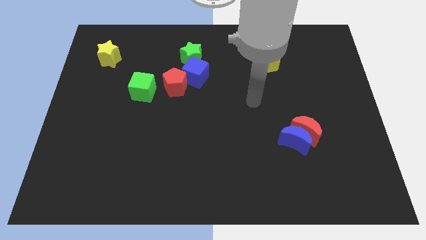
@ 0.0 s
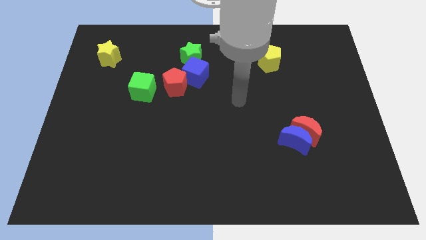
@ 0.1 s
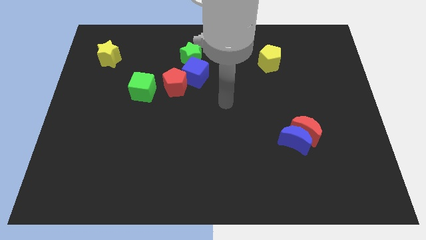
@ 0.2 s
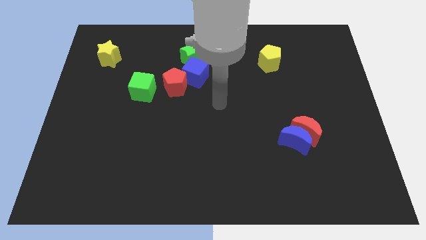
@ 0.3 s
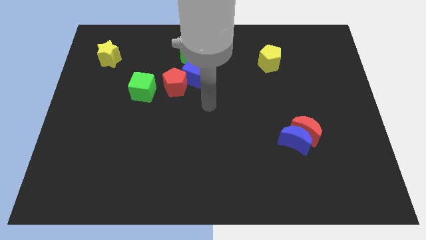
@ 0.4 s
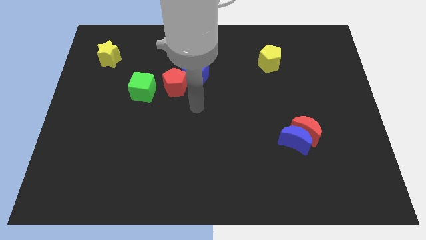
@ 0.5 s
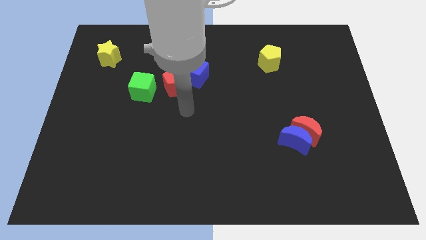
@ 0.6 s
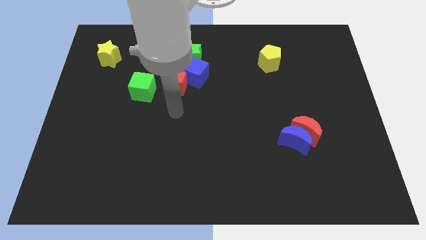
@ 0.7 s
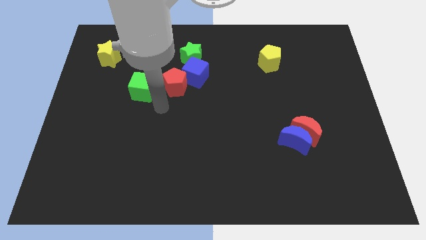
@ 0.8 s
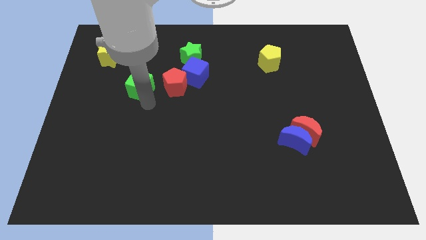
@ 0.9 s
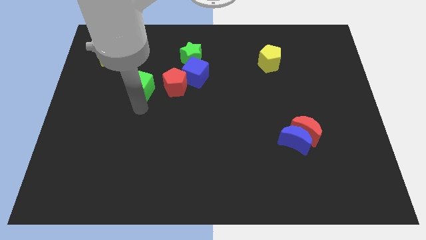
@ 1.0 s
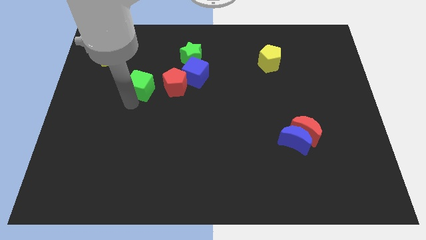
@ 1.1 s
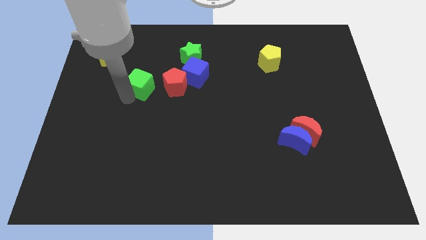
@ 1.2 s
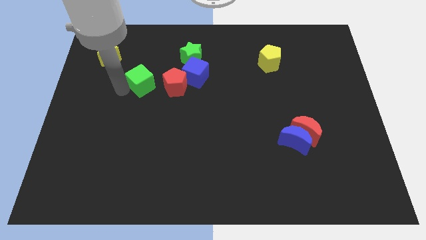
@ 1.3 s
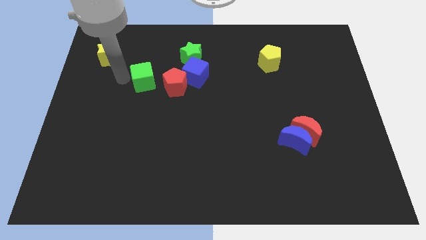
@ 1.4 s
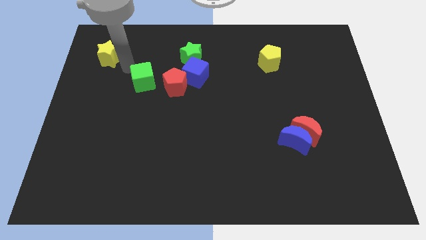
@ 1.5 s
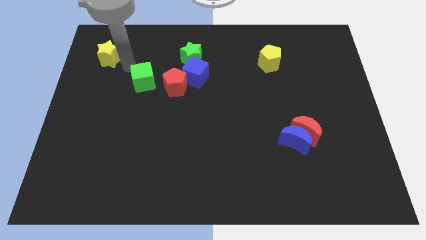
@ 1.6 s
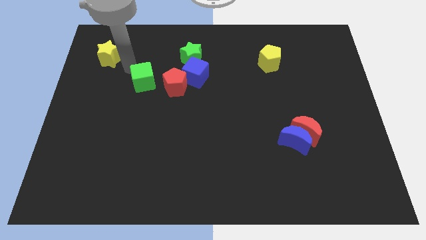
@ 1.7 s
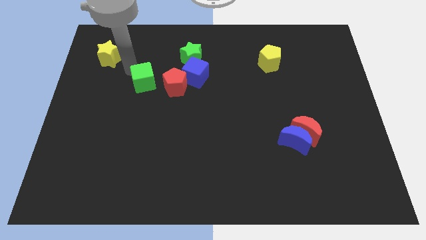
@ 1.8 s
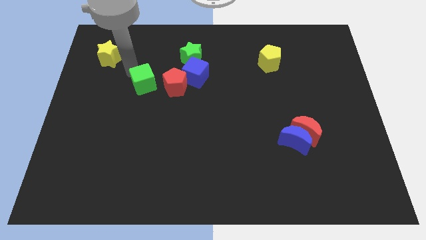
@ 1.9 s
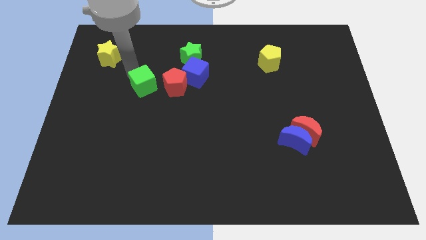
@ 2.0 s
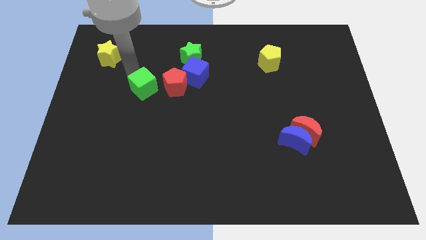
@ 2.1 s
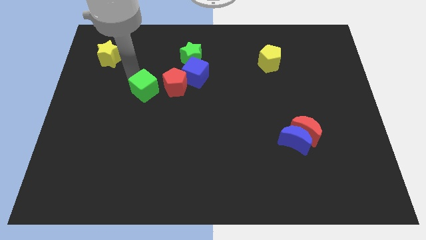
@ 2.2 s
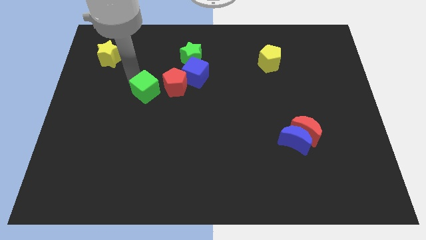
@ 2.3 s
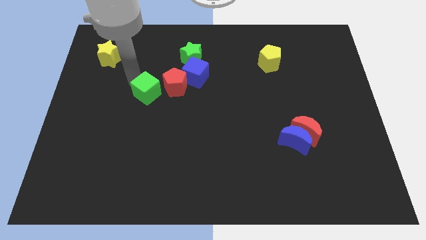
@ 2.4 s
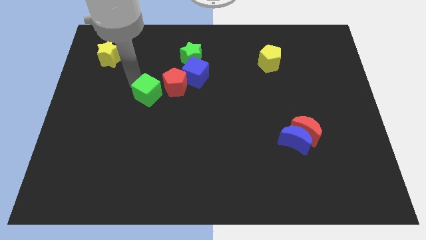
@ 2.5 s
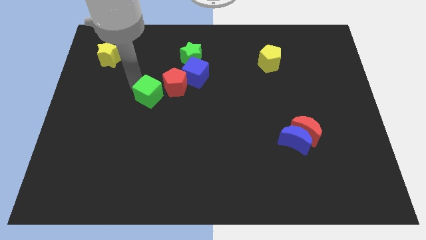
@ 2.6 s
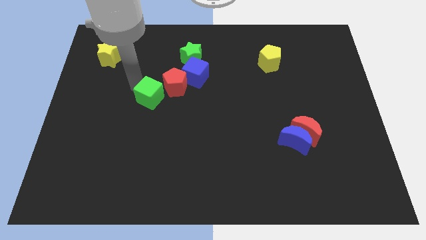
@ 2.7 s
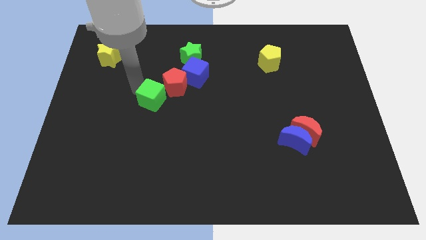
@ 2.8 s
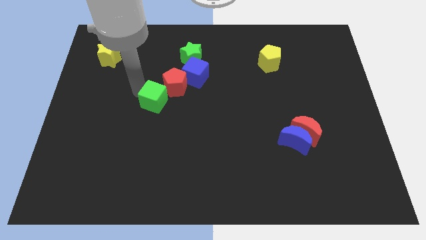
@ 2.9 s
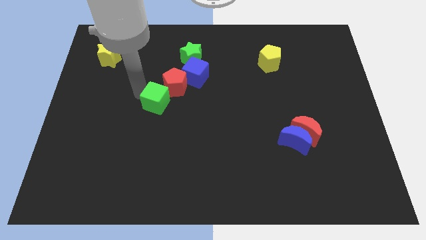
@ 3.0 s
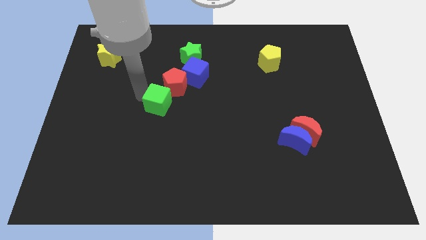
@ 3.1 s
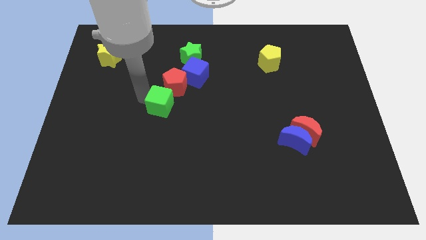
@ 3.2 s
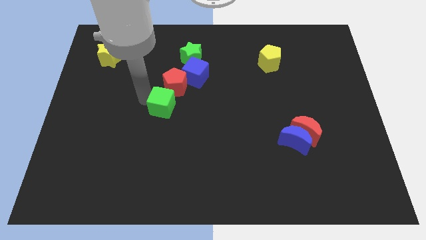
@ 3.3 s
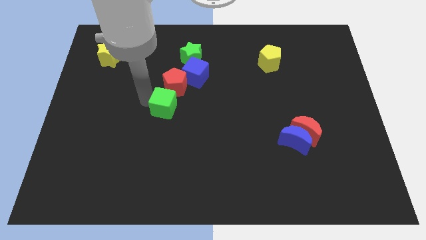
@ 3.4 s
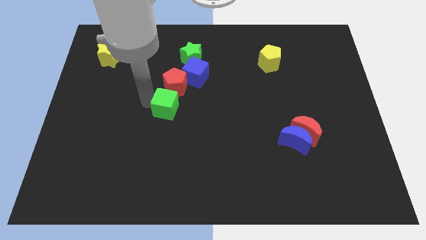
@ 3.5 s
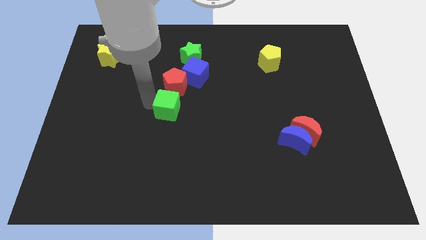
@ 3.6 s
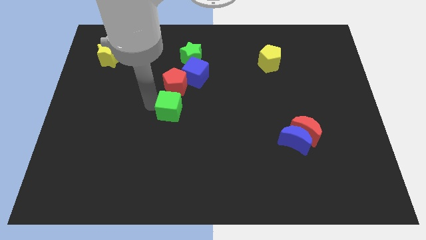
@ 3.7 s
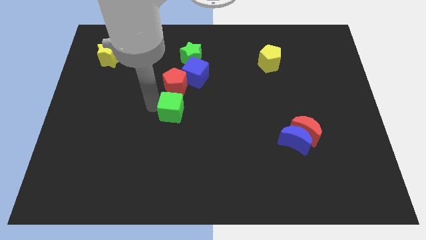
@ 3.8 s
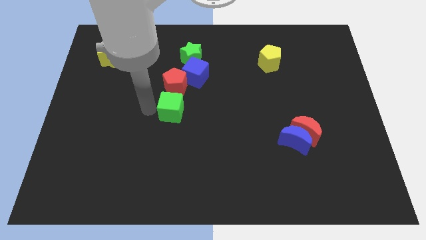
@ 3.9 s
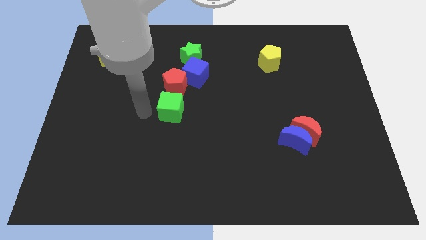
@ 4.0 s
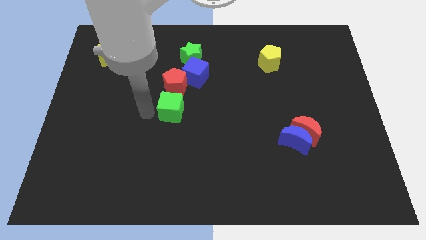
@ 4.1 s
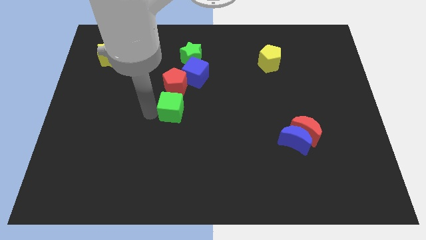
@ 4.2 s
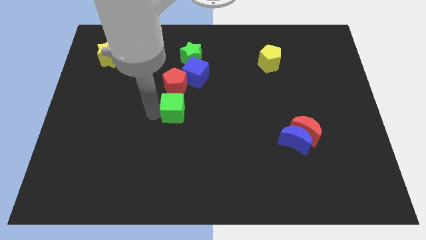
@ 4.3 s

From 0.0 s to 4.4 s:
slide the green cube below the blue cube

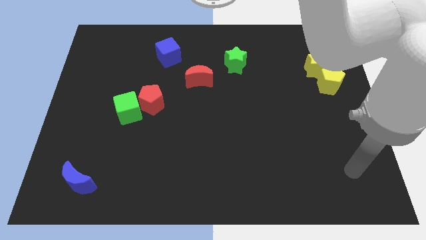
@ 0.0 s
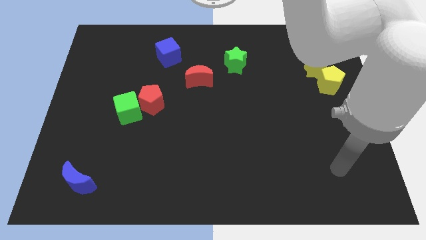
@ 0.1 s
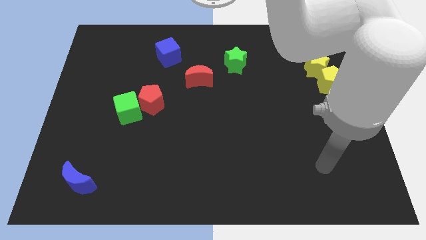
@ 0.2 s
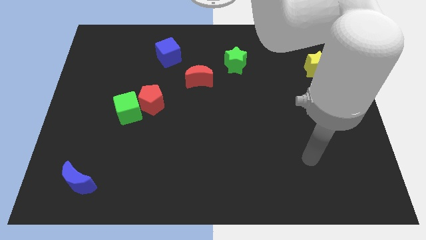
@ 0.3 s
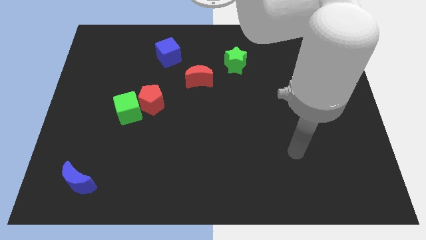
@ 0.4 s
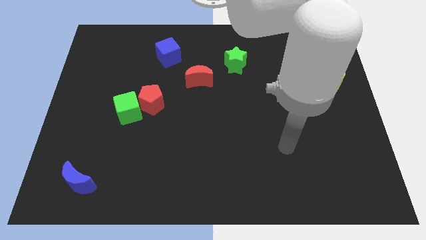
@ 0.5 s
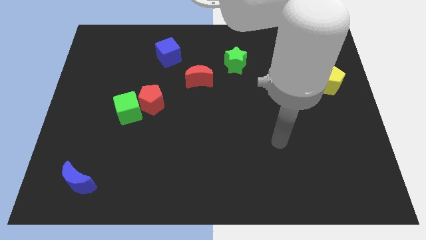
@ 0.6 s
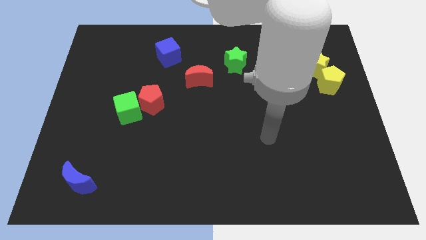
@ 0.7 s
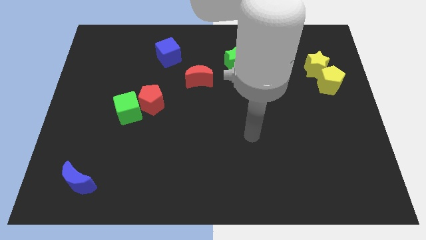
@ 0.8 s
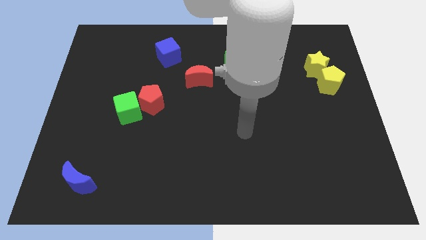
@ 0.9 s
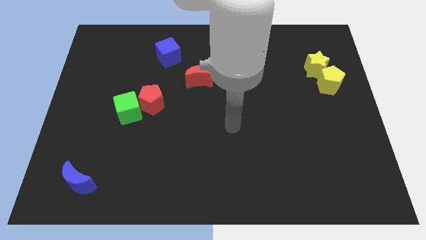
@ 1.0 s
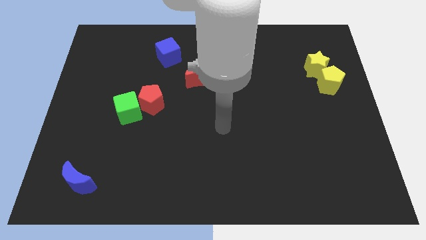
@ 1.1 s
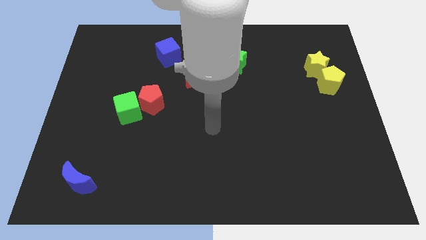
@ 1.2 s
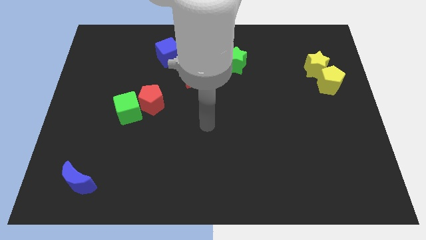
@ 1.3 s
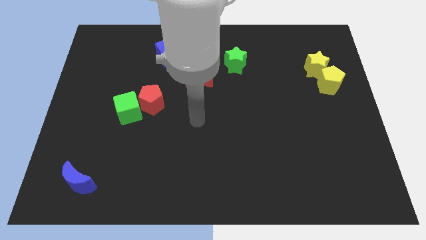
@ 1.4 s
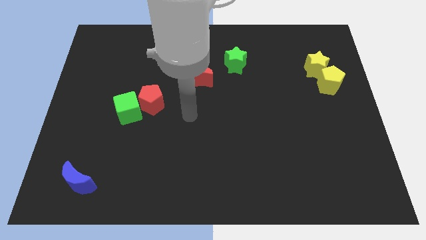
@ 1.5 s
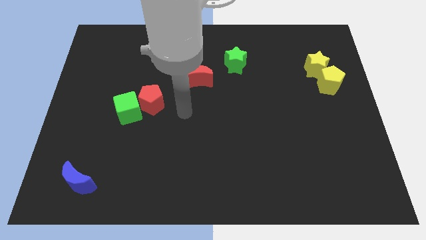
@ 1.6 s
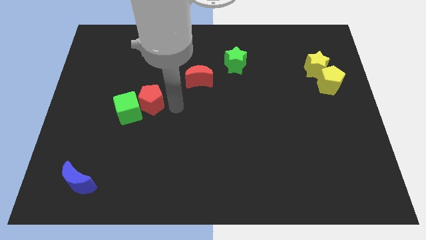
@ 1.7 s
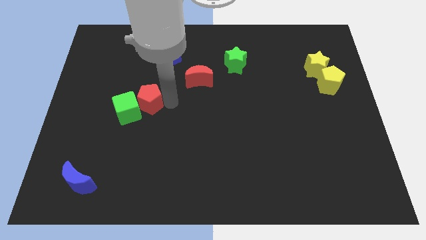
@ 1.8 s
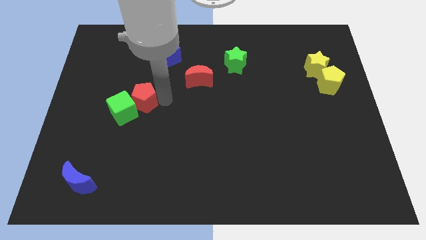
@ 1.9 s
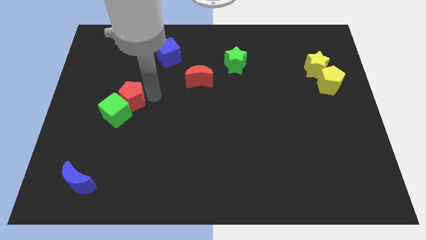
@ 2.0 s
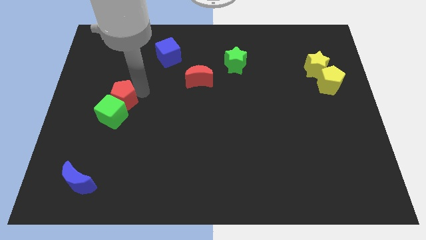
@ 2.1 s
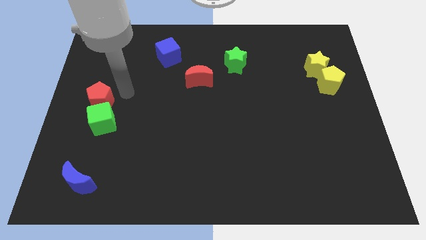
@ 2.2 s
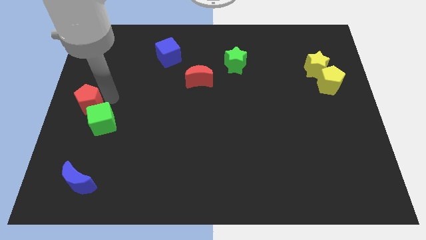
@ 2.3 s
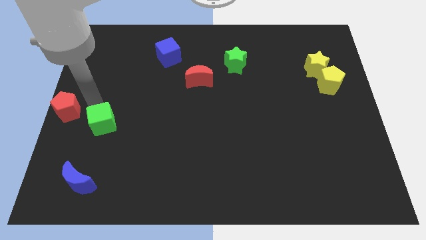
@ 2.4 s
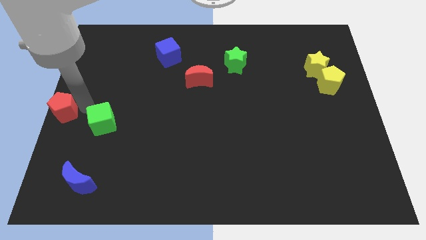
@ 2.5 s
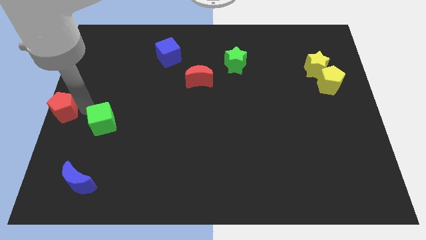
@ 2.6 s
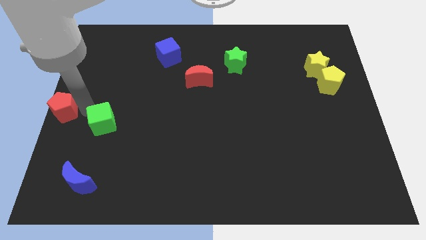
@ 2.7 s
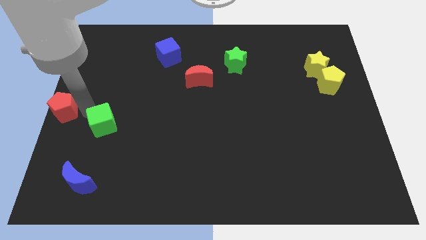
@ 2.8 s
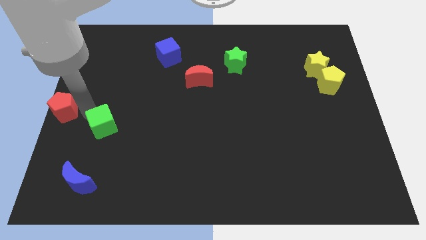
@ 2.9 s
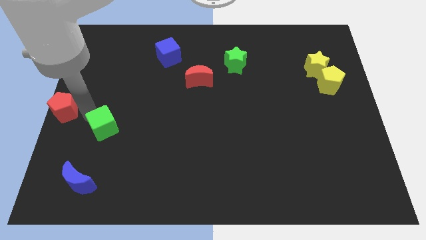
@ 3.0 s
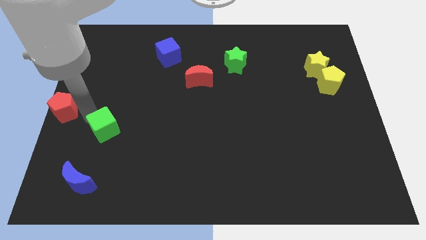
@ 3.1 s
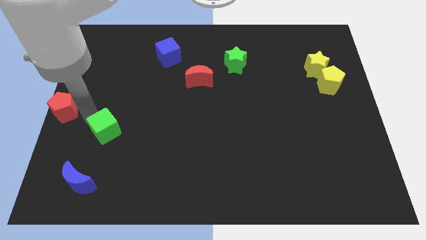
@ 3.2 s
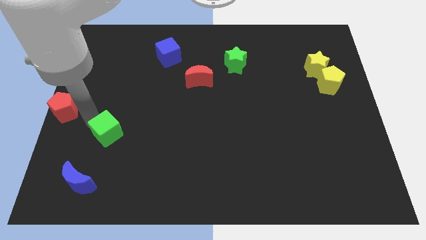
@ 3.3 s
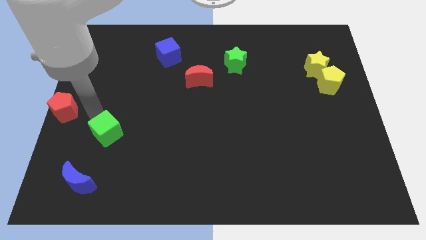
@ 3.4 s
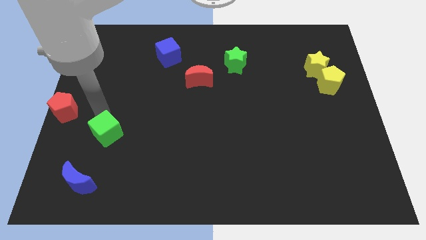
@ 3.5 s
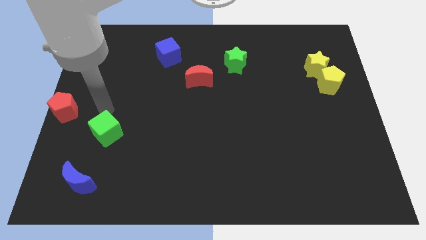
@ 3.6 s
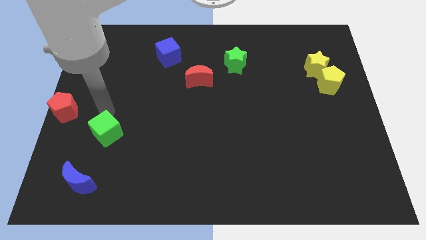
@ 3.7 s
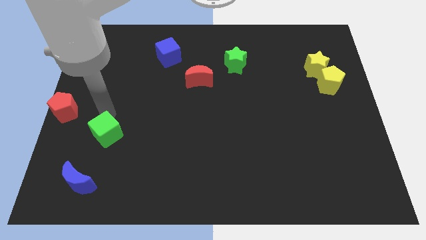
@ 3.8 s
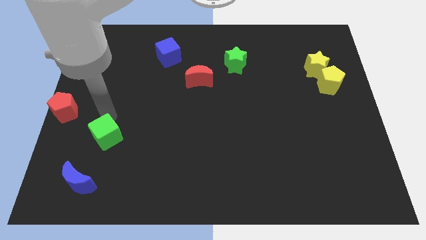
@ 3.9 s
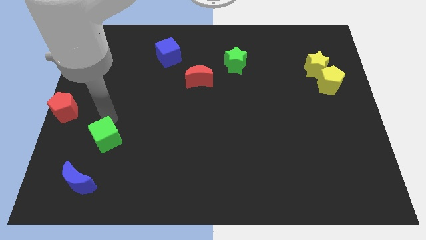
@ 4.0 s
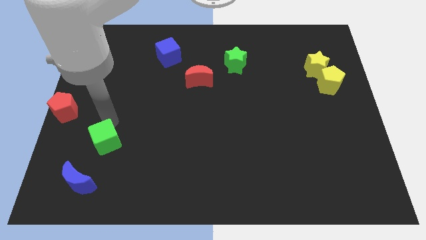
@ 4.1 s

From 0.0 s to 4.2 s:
put the green cube to the top right side of the blue moon
